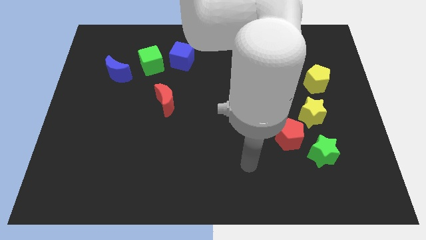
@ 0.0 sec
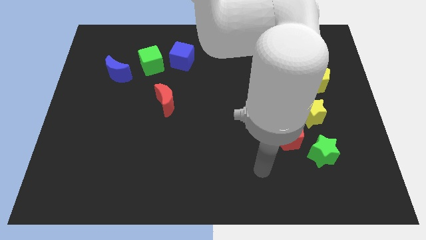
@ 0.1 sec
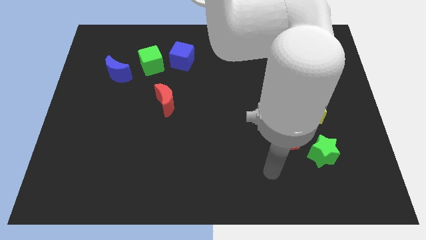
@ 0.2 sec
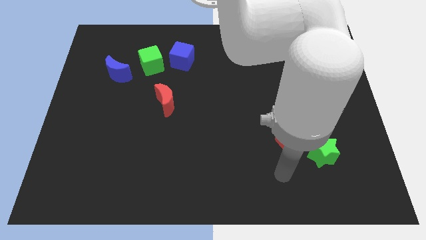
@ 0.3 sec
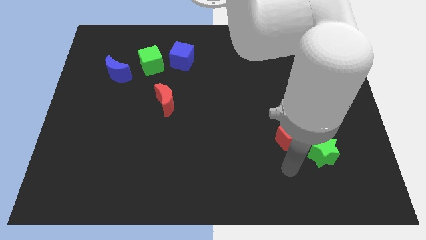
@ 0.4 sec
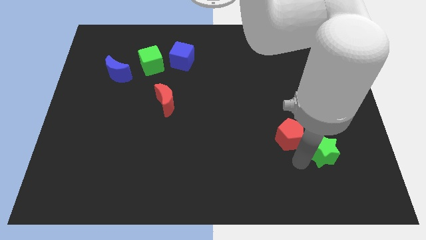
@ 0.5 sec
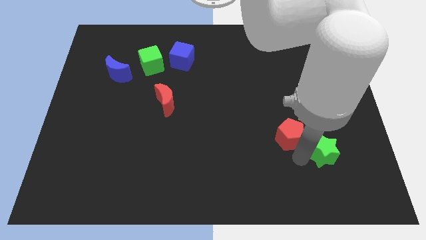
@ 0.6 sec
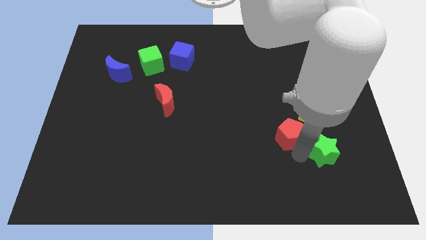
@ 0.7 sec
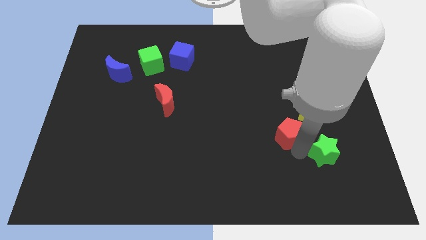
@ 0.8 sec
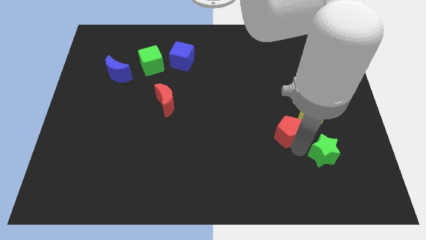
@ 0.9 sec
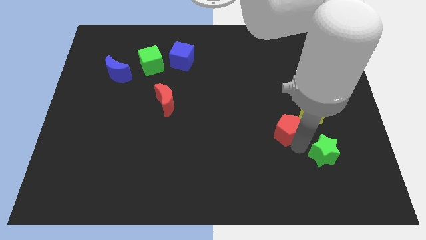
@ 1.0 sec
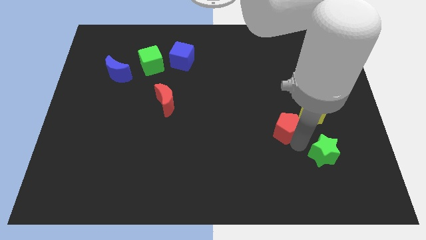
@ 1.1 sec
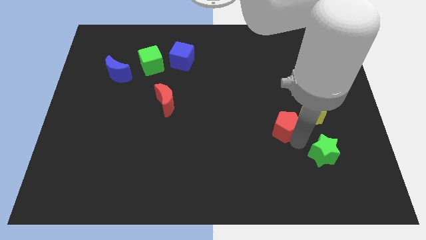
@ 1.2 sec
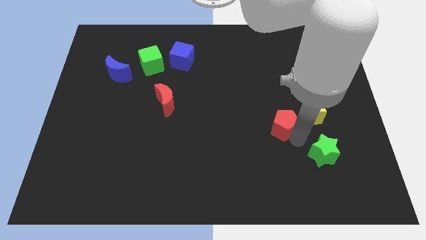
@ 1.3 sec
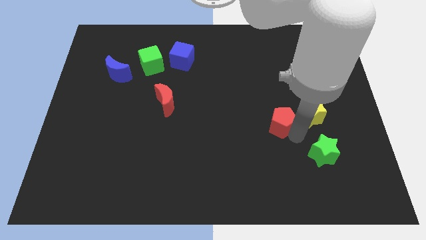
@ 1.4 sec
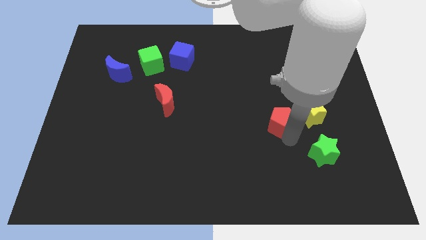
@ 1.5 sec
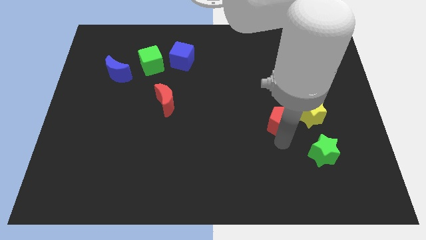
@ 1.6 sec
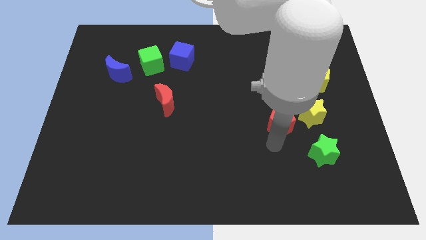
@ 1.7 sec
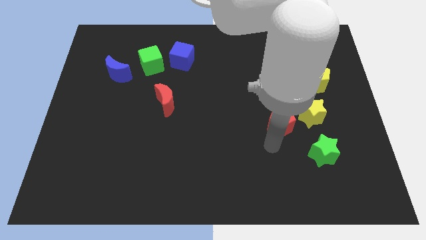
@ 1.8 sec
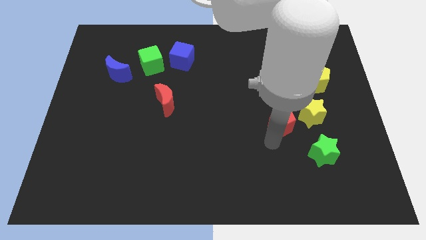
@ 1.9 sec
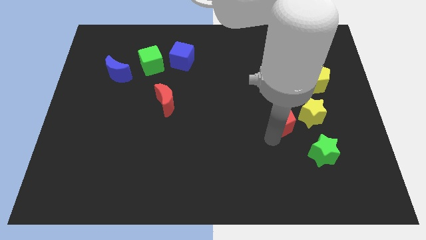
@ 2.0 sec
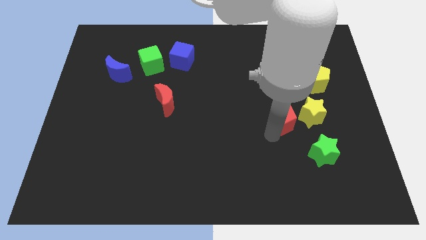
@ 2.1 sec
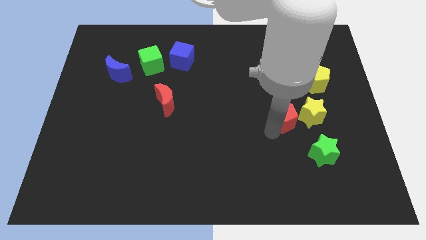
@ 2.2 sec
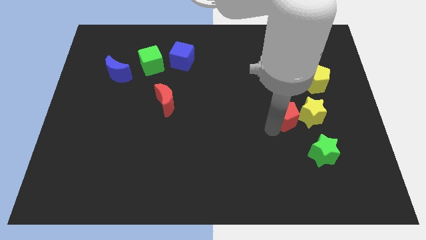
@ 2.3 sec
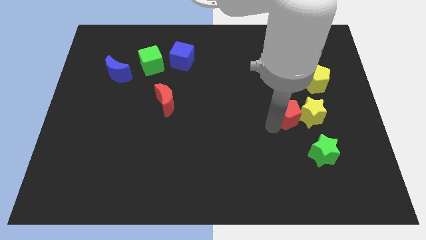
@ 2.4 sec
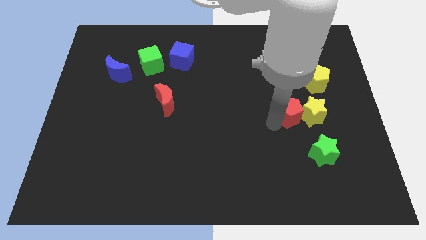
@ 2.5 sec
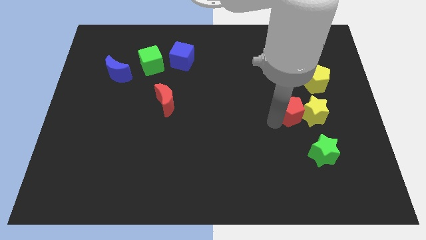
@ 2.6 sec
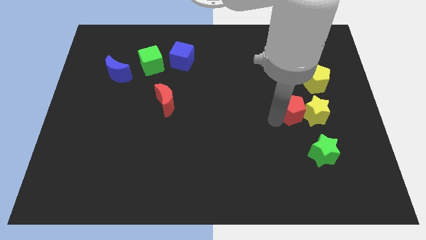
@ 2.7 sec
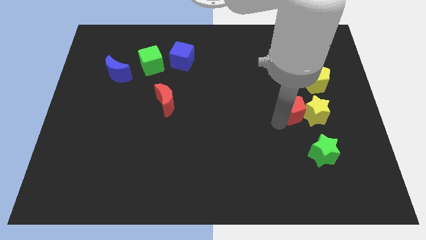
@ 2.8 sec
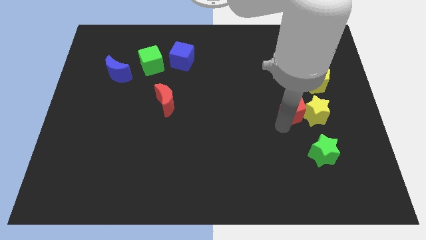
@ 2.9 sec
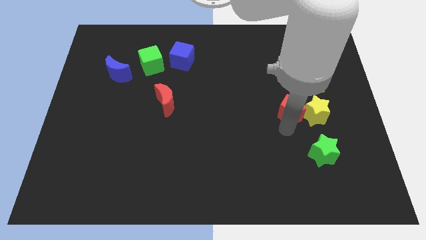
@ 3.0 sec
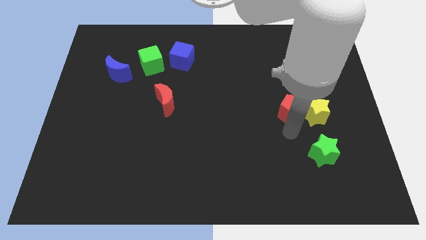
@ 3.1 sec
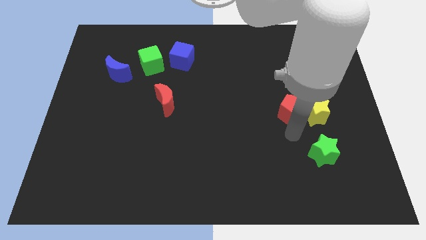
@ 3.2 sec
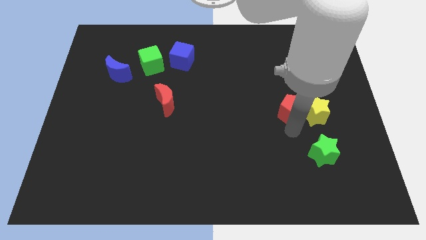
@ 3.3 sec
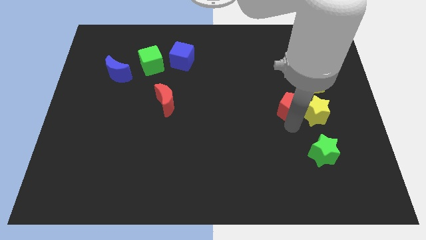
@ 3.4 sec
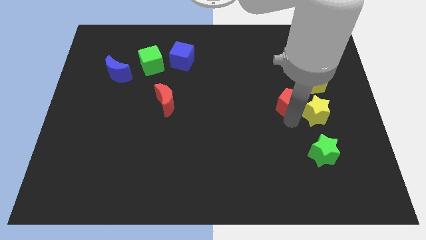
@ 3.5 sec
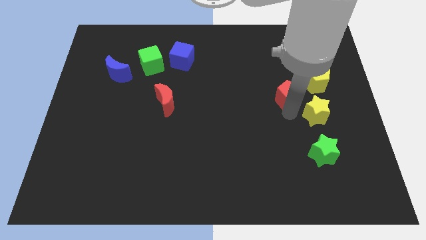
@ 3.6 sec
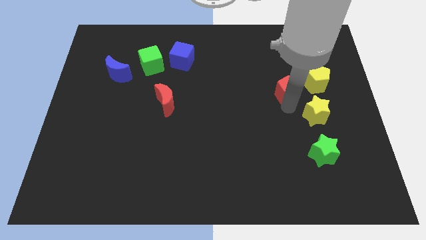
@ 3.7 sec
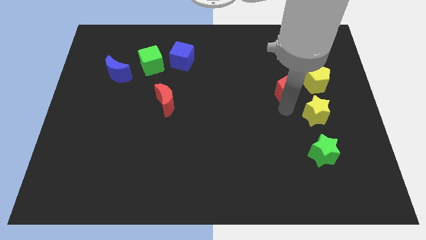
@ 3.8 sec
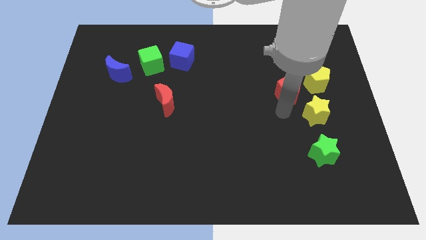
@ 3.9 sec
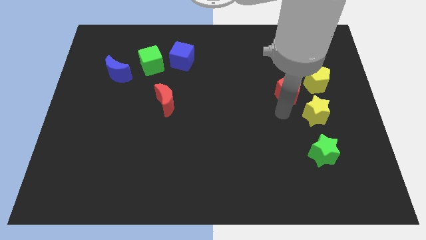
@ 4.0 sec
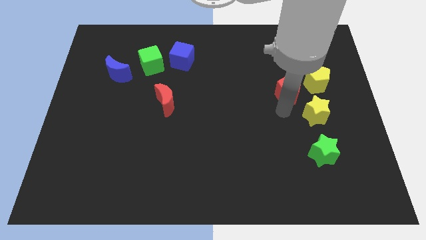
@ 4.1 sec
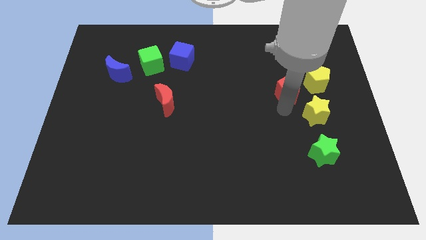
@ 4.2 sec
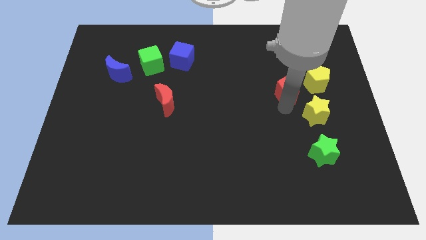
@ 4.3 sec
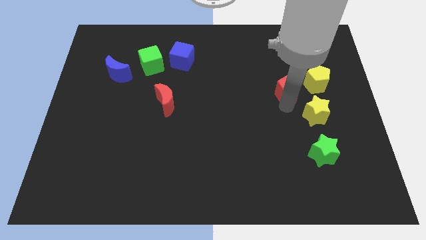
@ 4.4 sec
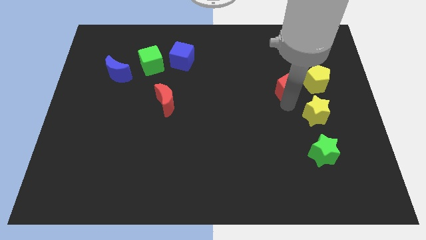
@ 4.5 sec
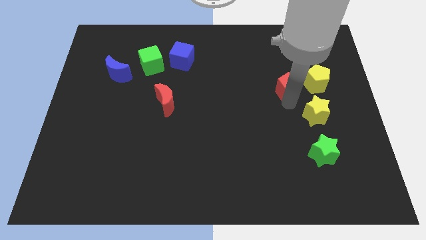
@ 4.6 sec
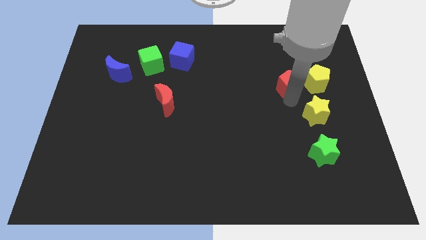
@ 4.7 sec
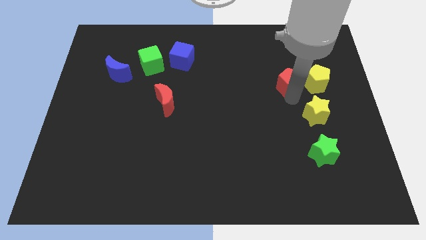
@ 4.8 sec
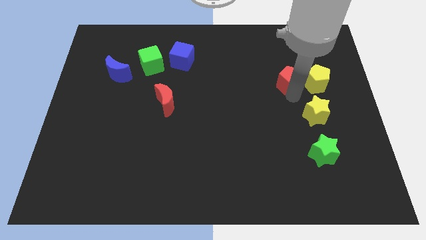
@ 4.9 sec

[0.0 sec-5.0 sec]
slide the red pentagon diagonally up and to the left of the yellow pentagon

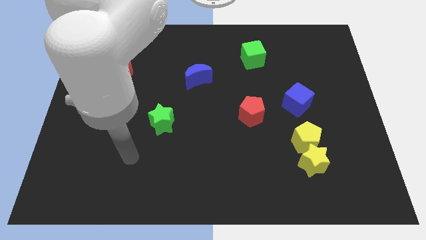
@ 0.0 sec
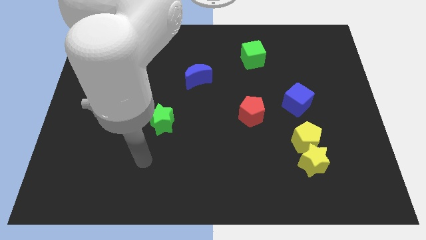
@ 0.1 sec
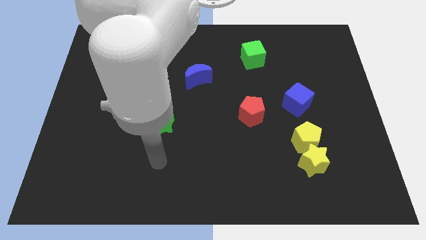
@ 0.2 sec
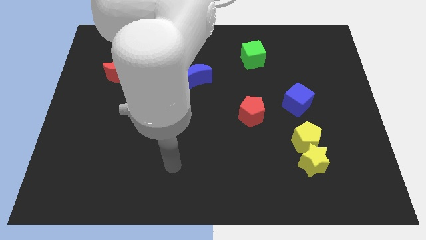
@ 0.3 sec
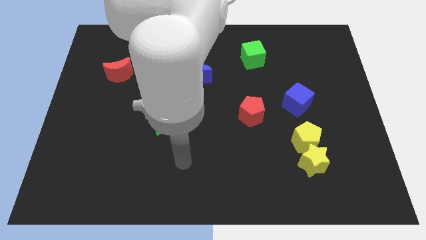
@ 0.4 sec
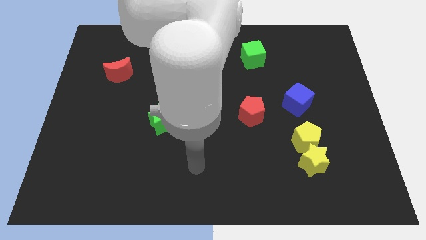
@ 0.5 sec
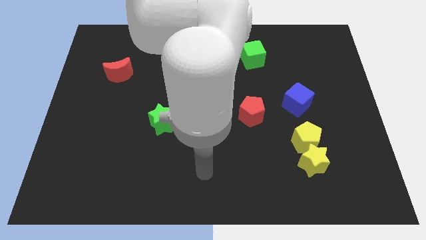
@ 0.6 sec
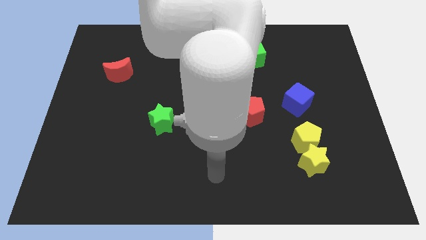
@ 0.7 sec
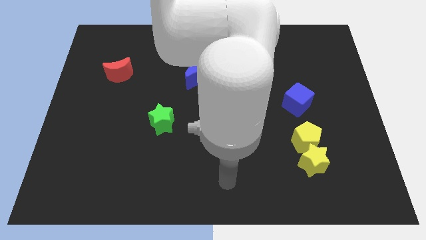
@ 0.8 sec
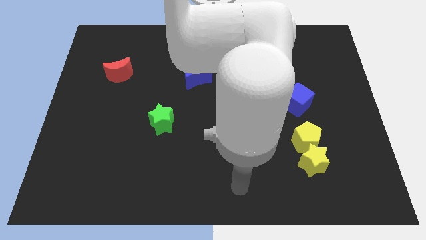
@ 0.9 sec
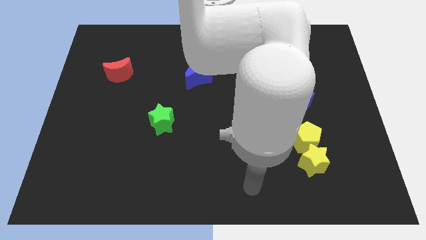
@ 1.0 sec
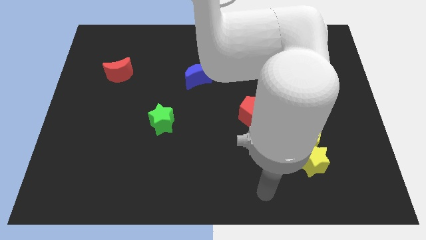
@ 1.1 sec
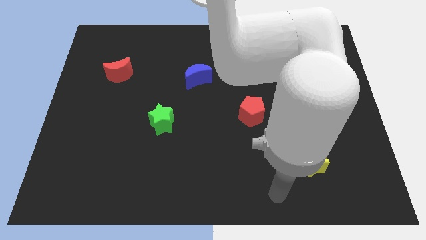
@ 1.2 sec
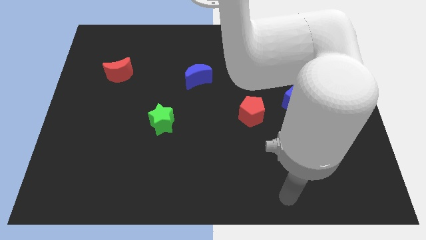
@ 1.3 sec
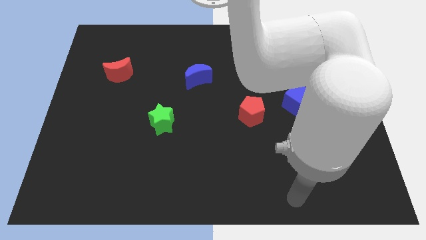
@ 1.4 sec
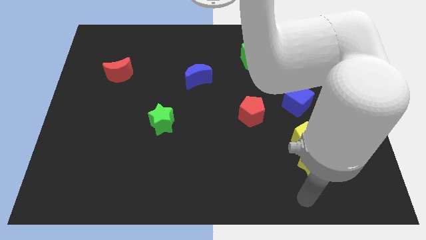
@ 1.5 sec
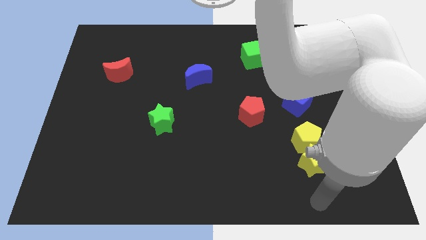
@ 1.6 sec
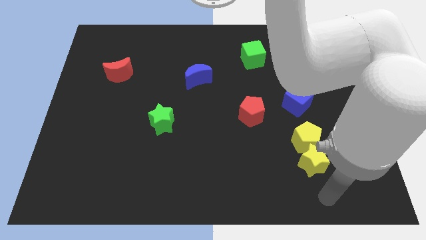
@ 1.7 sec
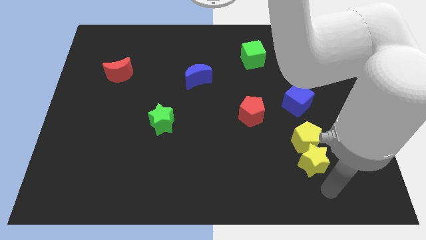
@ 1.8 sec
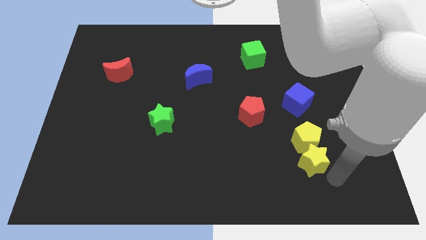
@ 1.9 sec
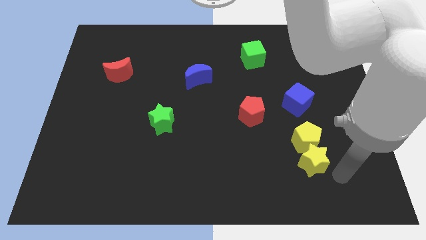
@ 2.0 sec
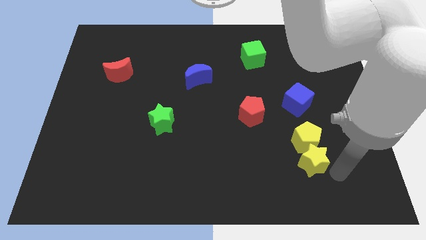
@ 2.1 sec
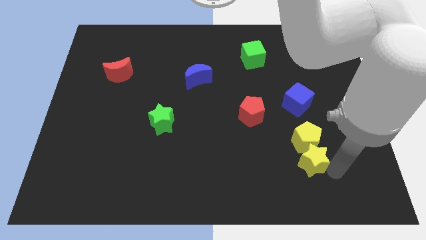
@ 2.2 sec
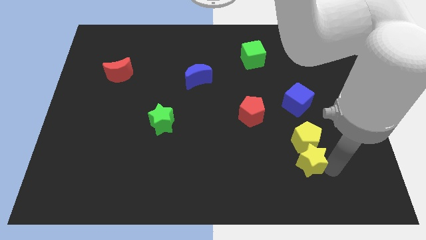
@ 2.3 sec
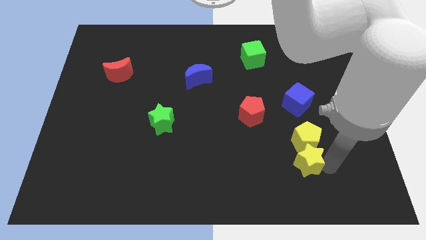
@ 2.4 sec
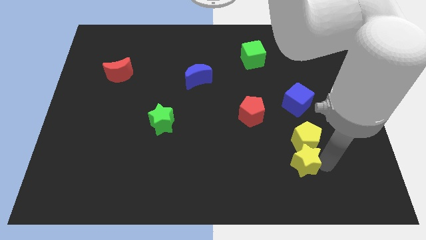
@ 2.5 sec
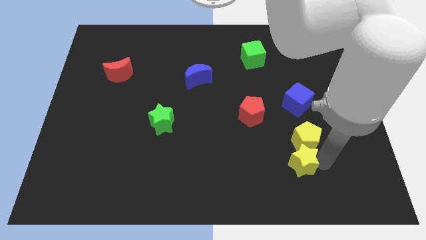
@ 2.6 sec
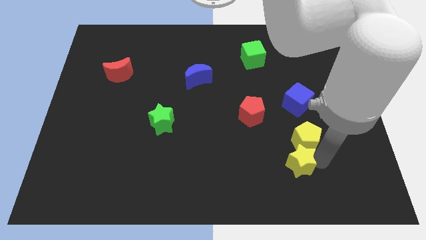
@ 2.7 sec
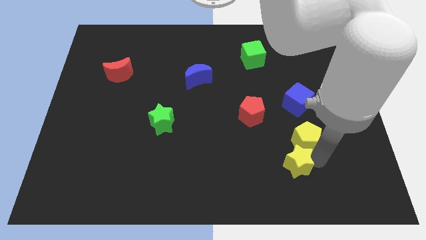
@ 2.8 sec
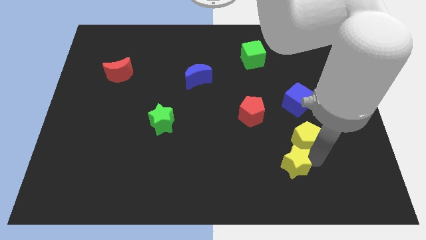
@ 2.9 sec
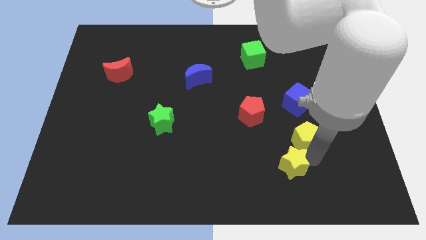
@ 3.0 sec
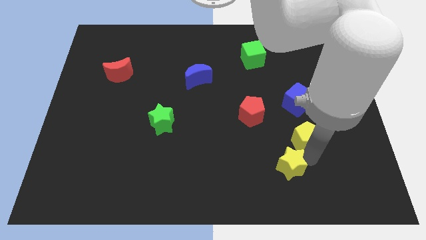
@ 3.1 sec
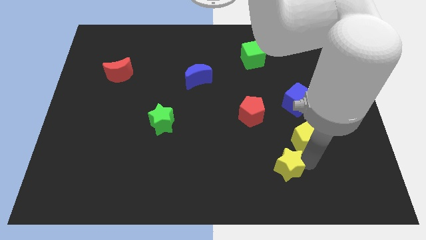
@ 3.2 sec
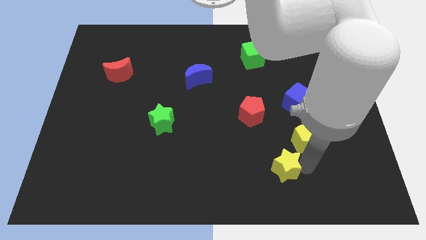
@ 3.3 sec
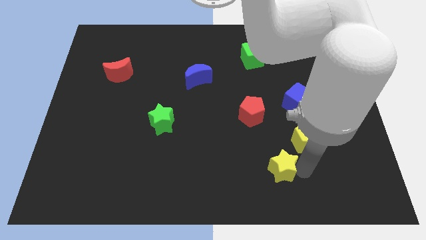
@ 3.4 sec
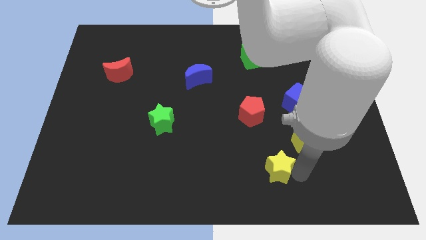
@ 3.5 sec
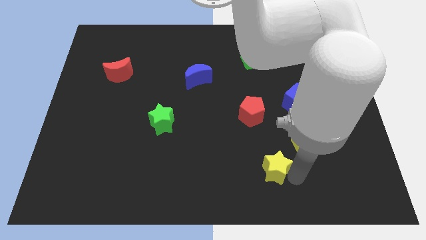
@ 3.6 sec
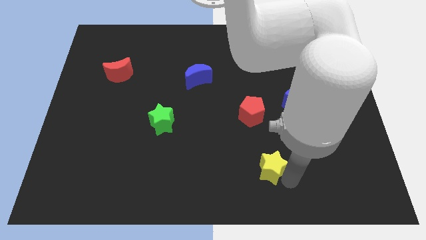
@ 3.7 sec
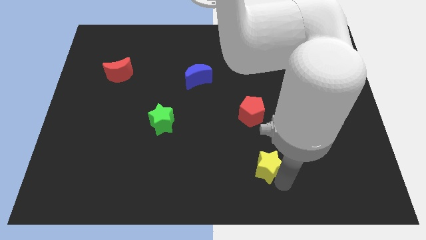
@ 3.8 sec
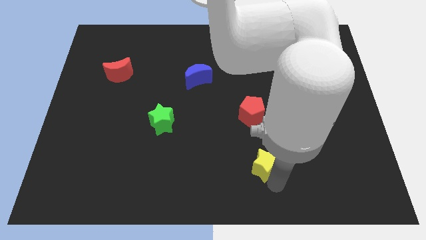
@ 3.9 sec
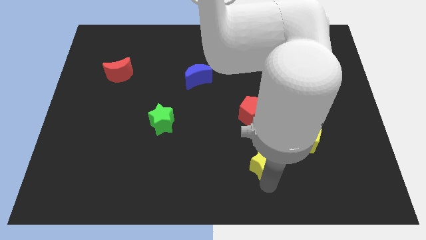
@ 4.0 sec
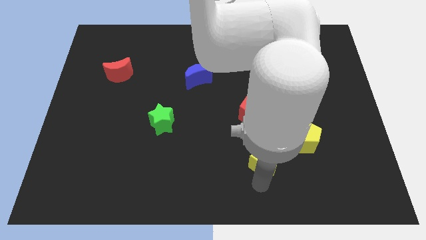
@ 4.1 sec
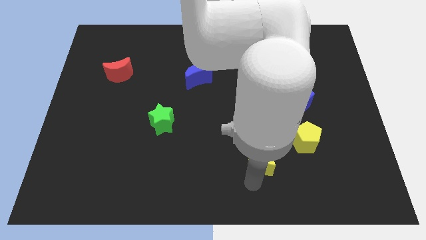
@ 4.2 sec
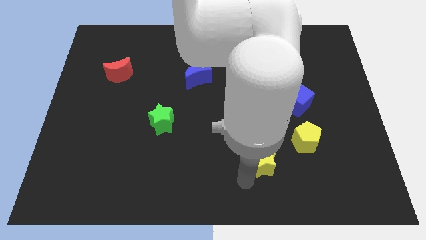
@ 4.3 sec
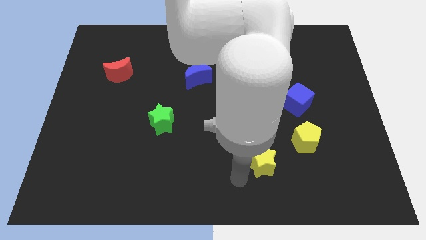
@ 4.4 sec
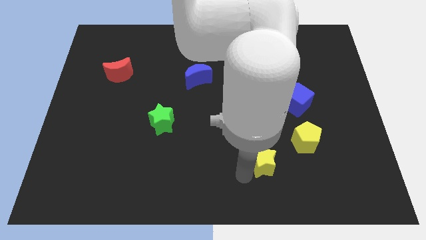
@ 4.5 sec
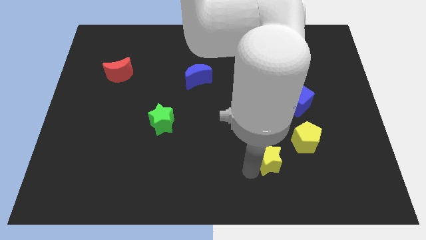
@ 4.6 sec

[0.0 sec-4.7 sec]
move the yellow star to the left side of the yellow pentagon
